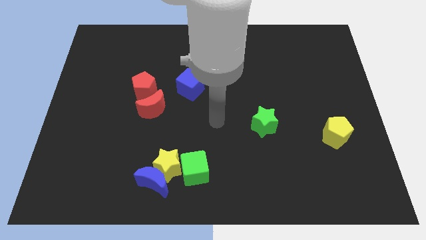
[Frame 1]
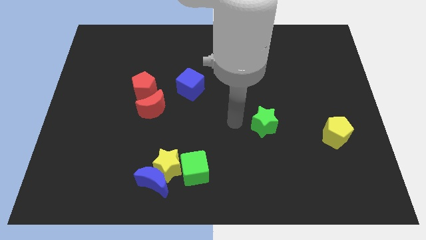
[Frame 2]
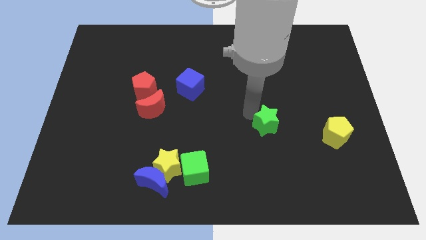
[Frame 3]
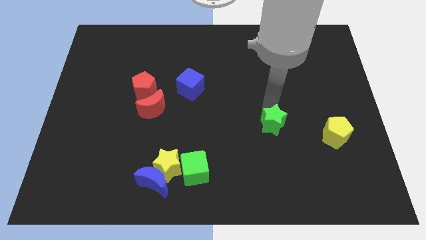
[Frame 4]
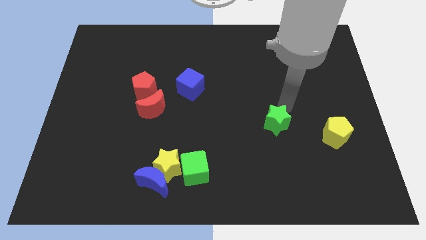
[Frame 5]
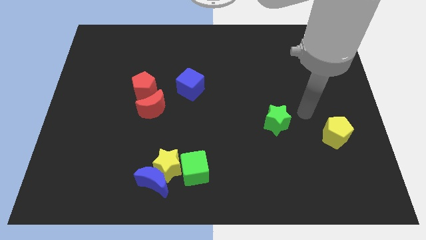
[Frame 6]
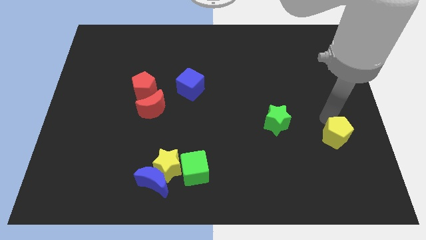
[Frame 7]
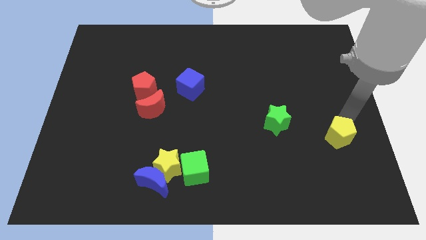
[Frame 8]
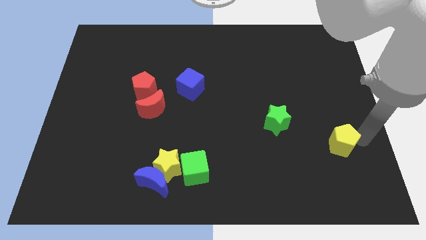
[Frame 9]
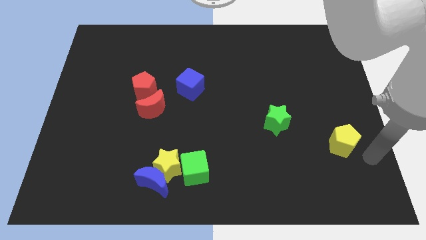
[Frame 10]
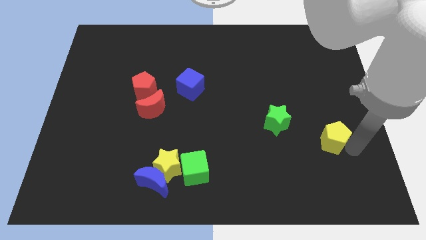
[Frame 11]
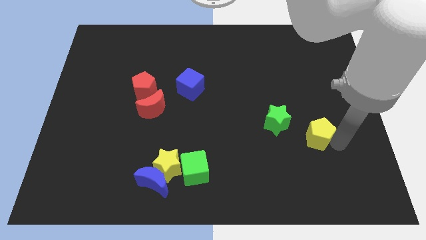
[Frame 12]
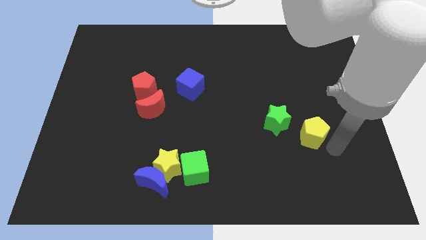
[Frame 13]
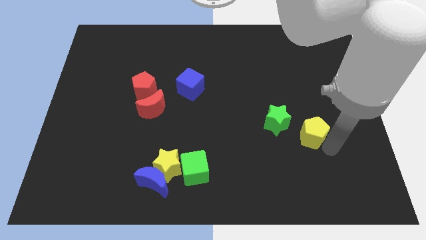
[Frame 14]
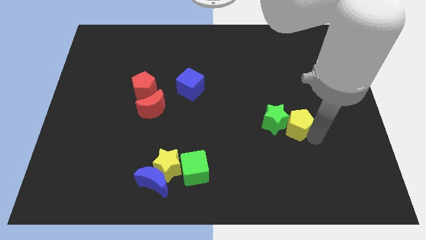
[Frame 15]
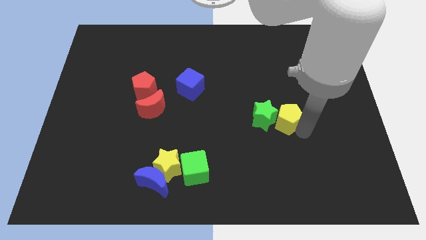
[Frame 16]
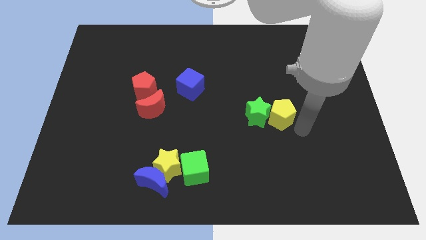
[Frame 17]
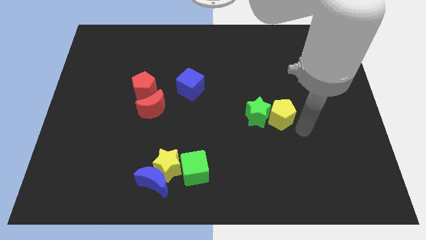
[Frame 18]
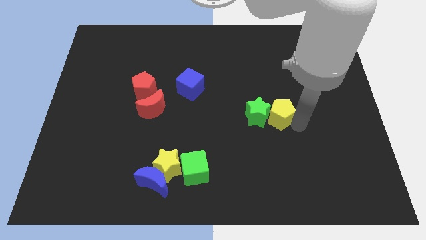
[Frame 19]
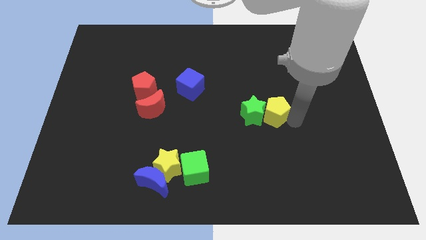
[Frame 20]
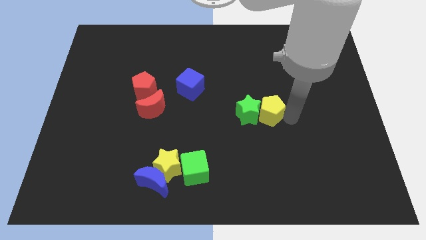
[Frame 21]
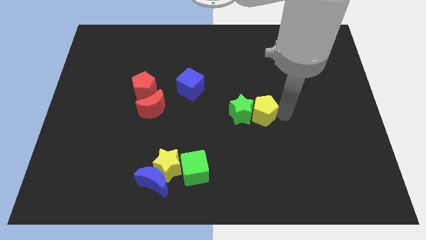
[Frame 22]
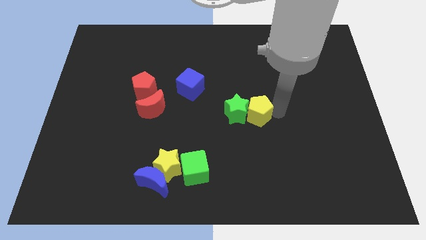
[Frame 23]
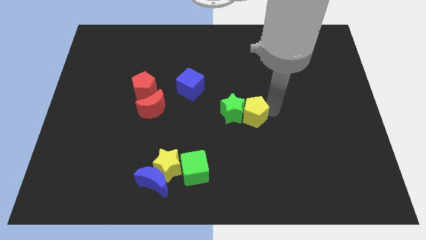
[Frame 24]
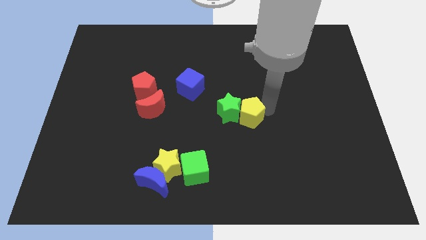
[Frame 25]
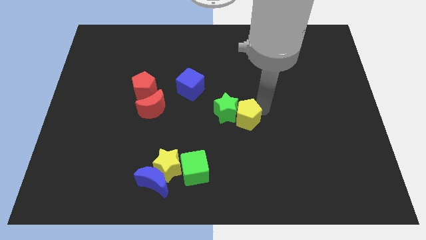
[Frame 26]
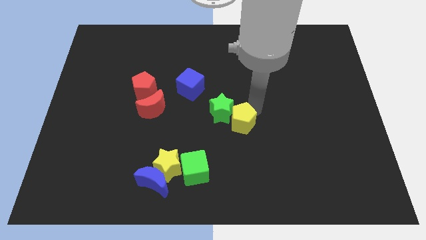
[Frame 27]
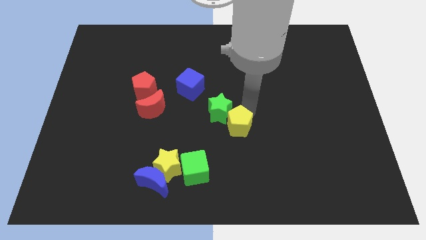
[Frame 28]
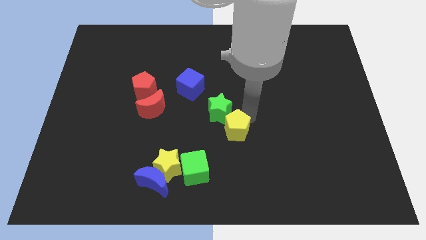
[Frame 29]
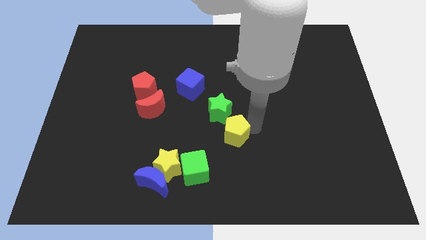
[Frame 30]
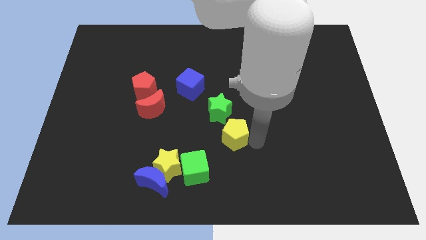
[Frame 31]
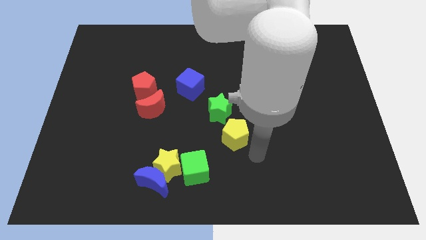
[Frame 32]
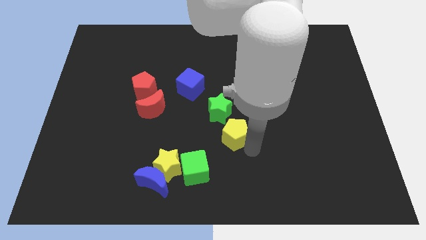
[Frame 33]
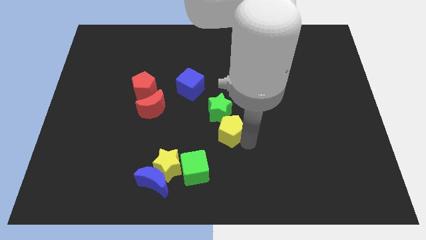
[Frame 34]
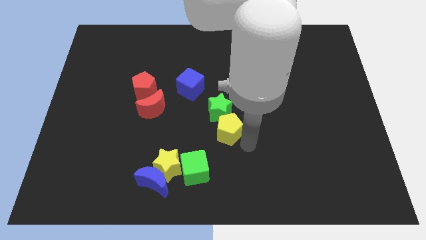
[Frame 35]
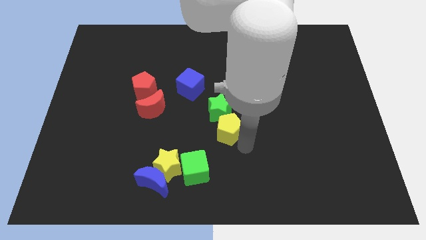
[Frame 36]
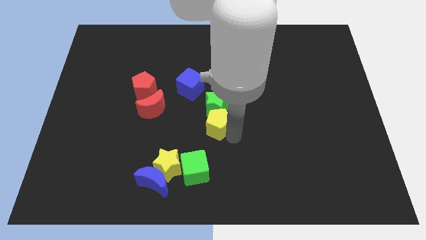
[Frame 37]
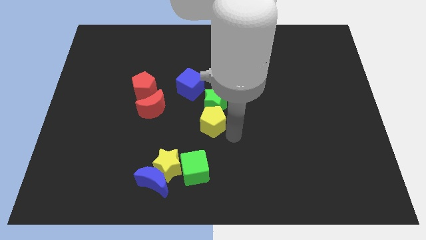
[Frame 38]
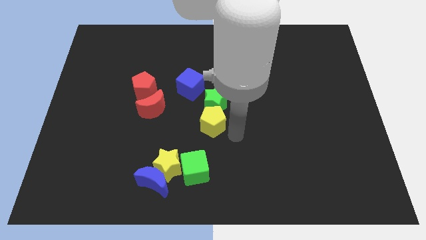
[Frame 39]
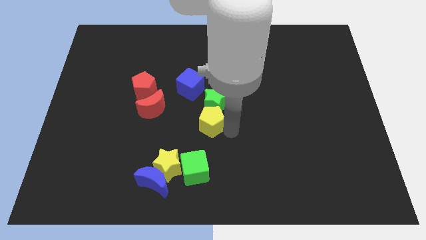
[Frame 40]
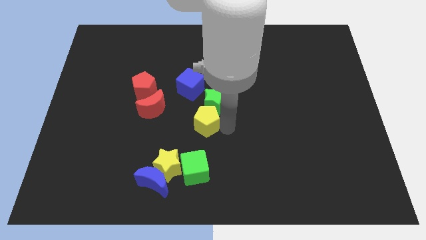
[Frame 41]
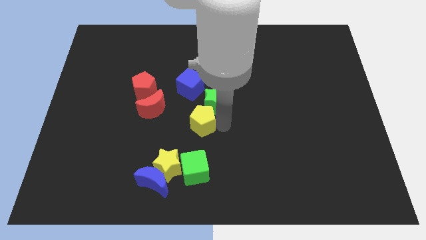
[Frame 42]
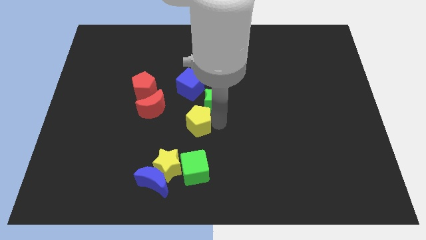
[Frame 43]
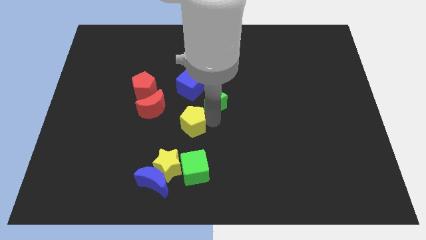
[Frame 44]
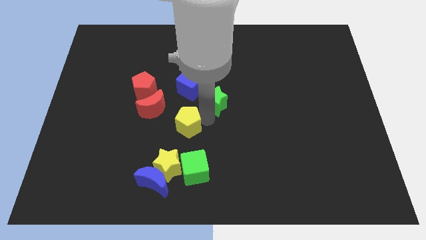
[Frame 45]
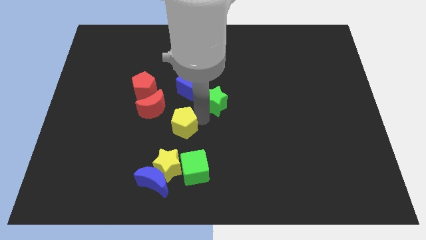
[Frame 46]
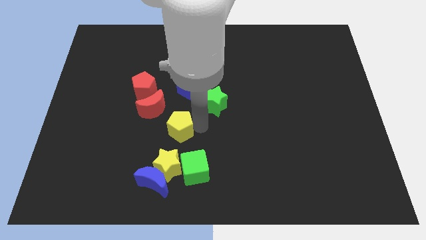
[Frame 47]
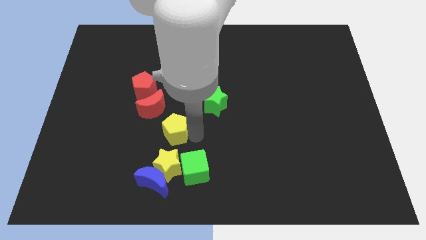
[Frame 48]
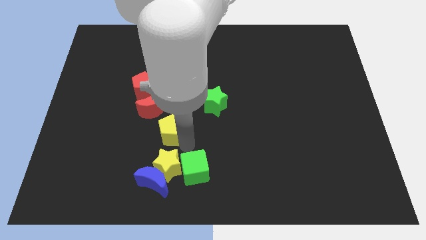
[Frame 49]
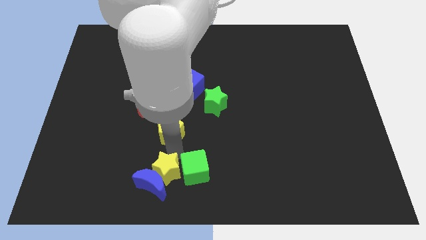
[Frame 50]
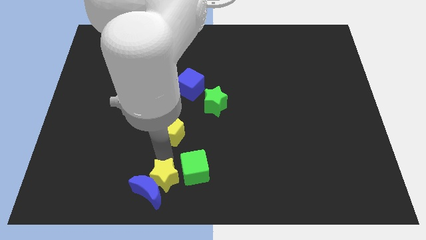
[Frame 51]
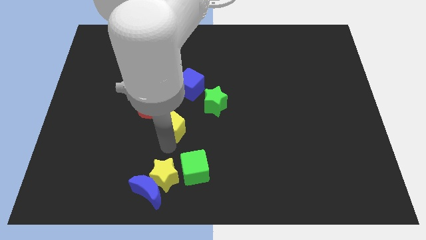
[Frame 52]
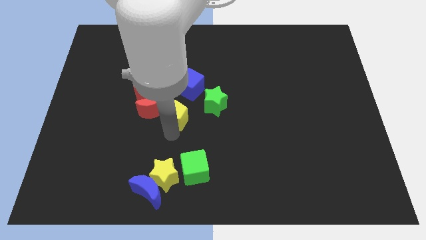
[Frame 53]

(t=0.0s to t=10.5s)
put the yellow pentagon close to the red moon

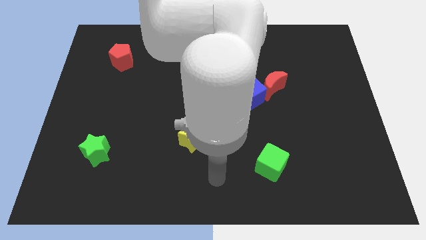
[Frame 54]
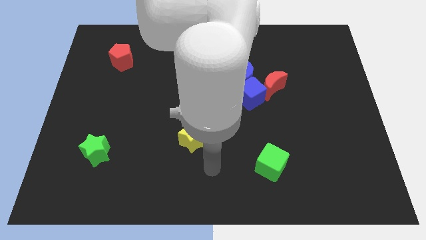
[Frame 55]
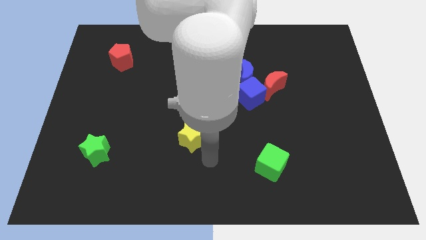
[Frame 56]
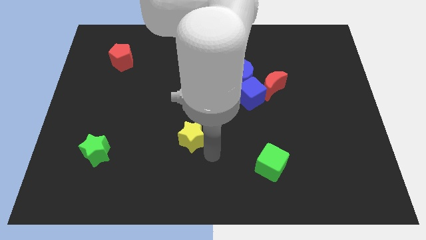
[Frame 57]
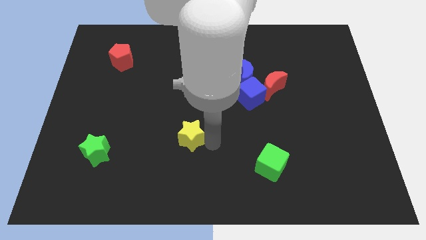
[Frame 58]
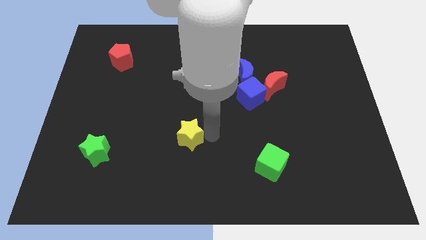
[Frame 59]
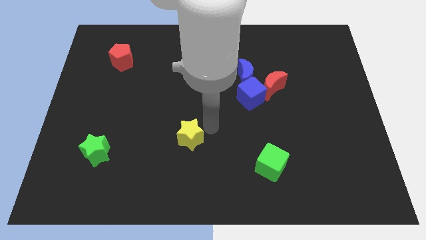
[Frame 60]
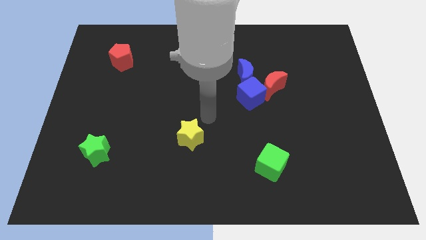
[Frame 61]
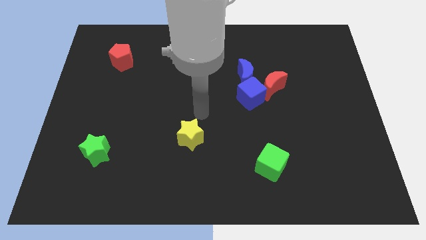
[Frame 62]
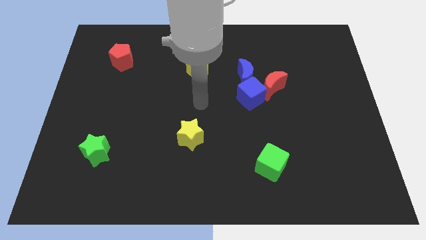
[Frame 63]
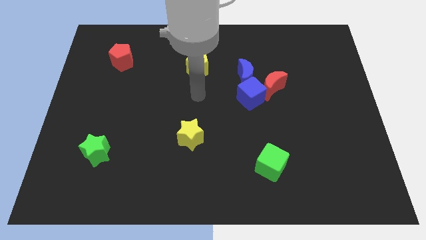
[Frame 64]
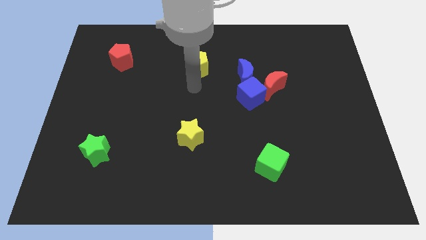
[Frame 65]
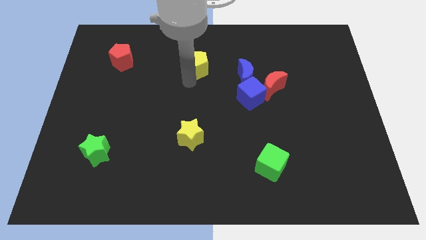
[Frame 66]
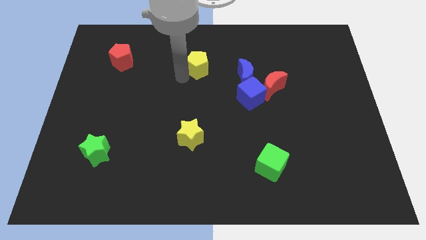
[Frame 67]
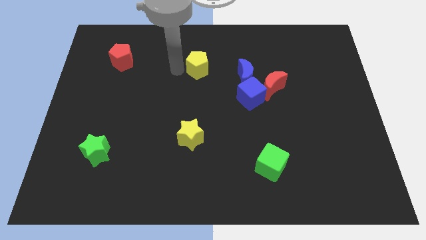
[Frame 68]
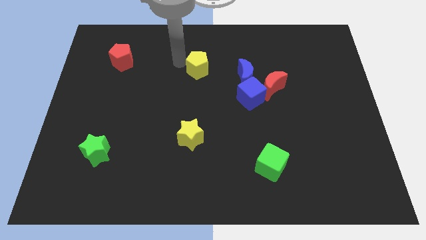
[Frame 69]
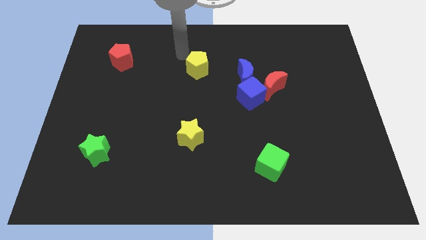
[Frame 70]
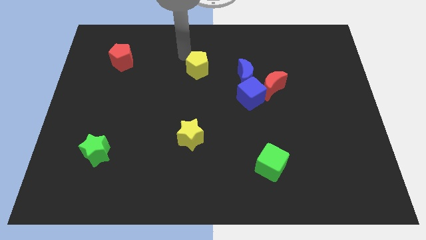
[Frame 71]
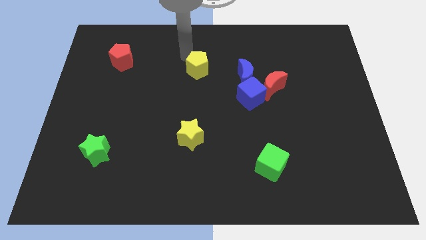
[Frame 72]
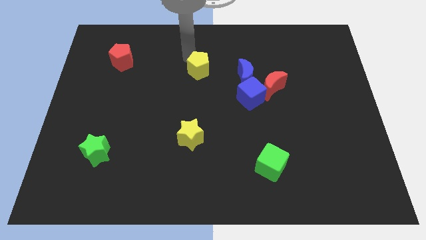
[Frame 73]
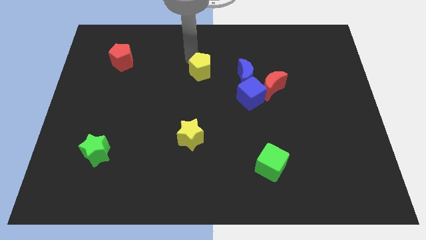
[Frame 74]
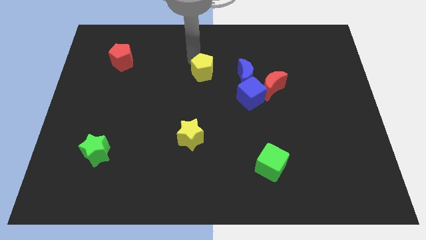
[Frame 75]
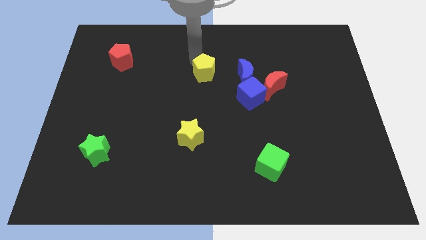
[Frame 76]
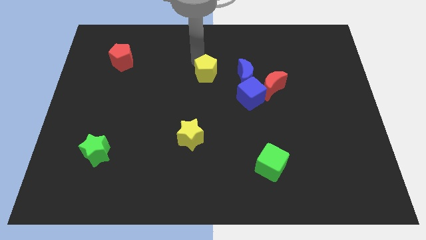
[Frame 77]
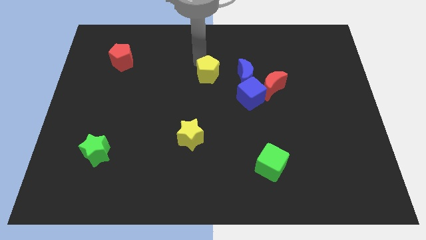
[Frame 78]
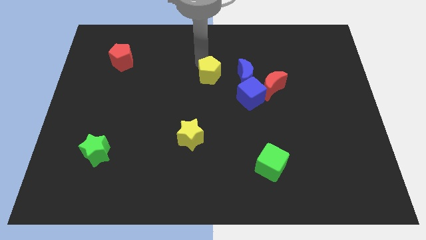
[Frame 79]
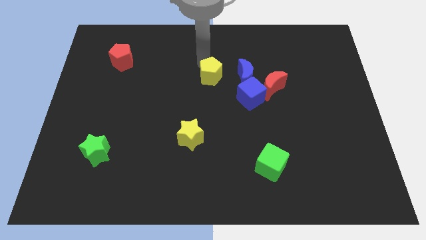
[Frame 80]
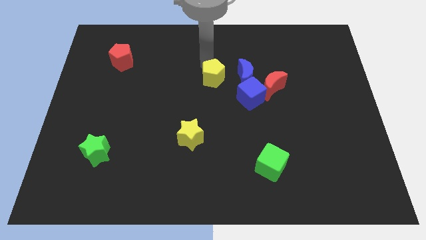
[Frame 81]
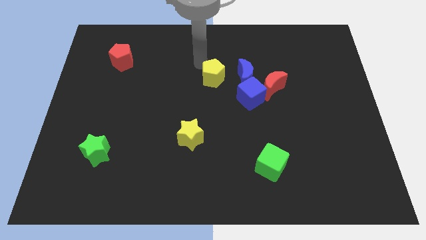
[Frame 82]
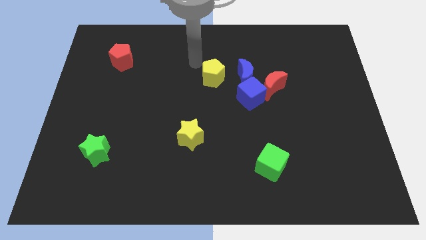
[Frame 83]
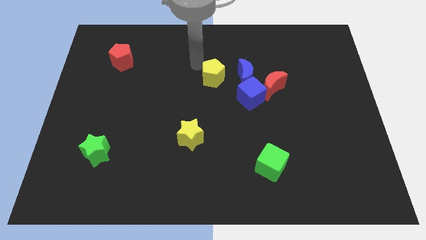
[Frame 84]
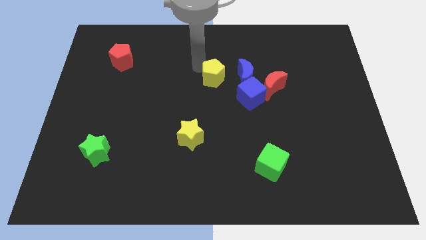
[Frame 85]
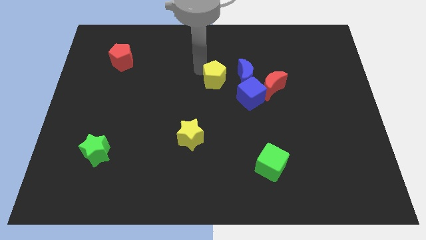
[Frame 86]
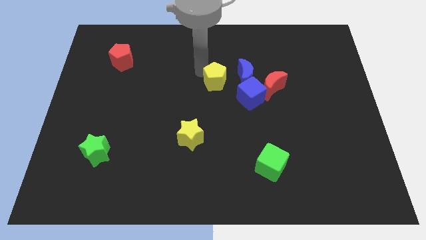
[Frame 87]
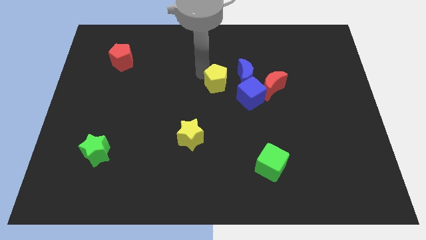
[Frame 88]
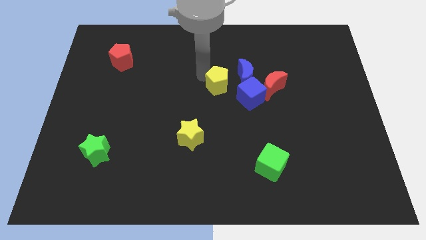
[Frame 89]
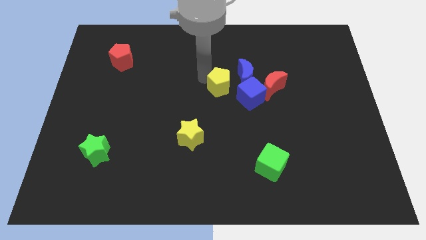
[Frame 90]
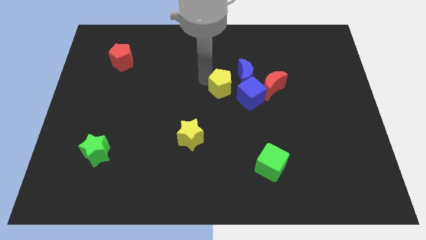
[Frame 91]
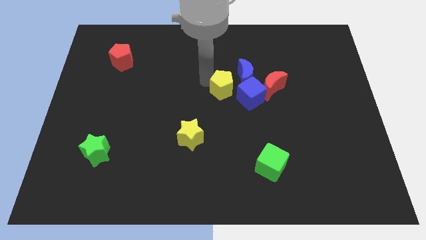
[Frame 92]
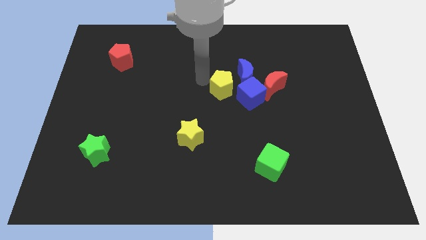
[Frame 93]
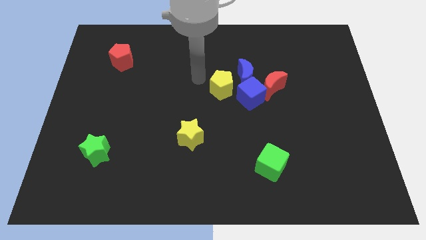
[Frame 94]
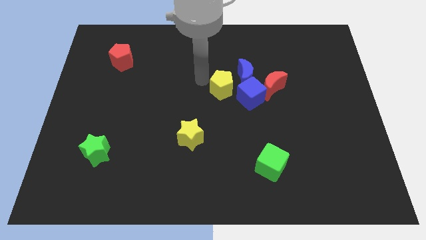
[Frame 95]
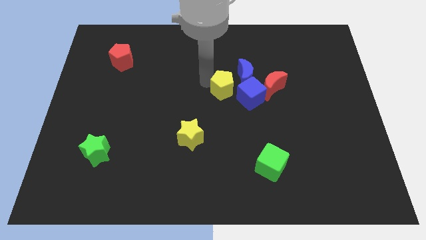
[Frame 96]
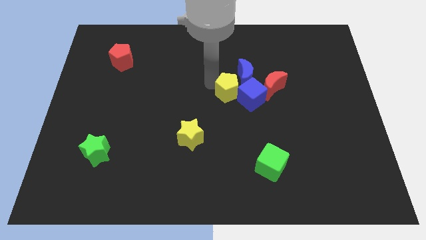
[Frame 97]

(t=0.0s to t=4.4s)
push the yellow pentagon next to the blue cube
